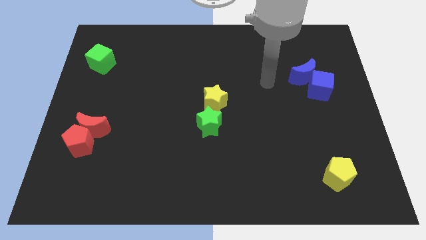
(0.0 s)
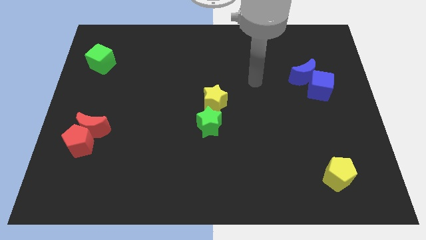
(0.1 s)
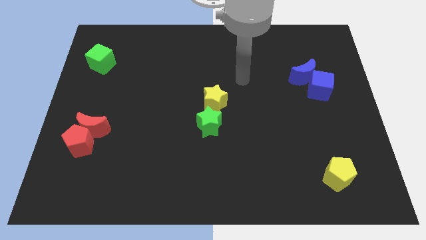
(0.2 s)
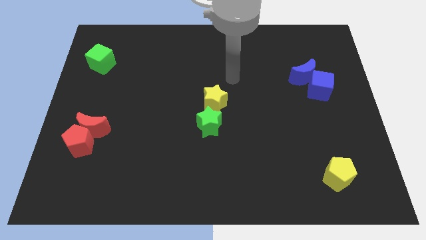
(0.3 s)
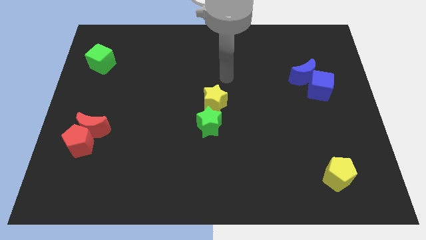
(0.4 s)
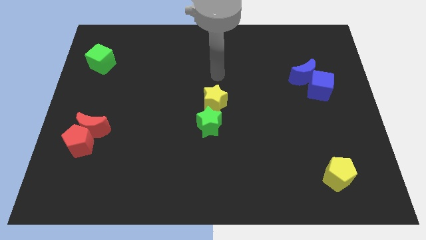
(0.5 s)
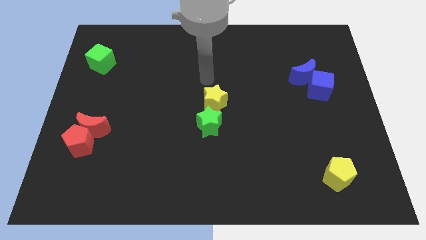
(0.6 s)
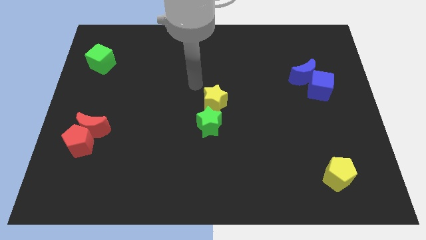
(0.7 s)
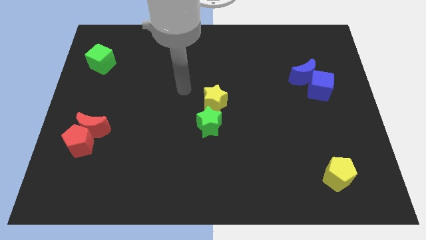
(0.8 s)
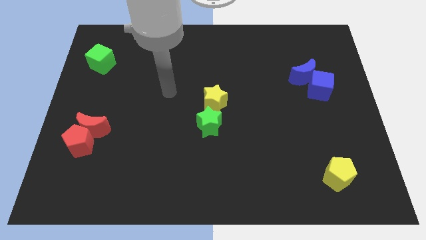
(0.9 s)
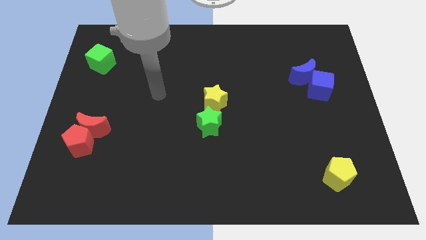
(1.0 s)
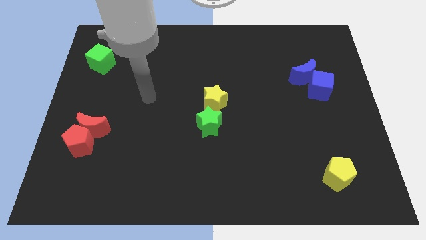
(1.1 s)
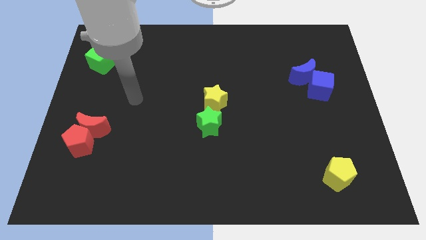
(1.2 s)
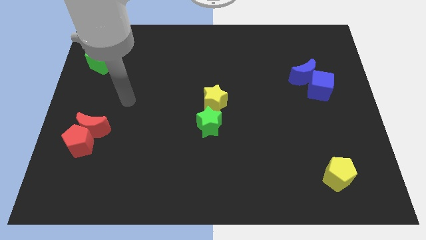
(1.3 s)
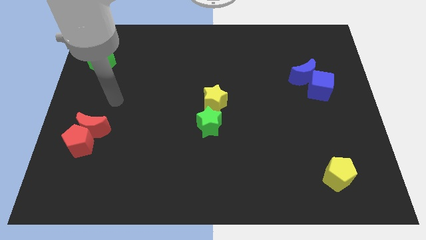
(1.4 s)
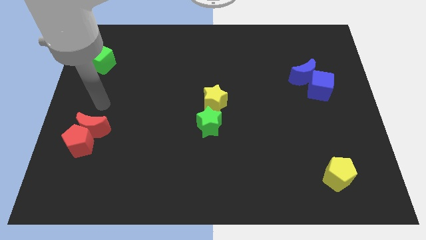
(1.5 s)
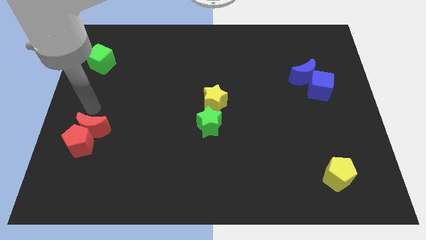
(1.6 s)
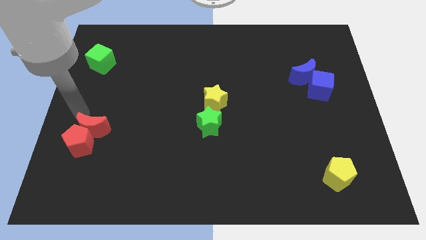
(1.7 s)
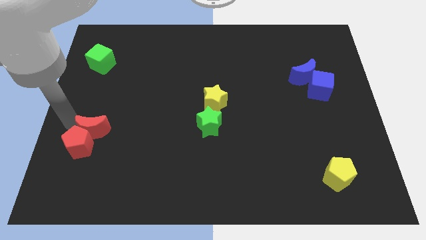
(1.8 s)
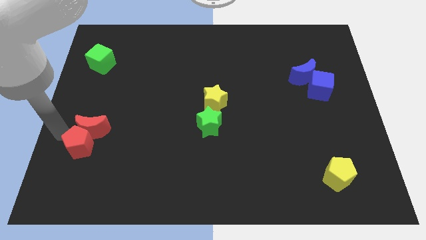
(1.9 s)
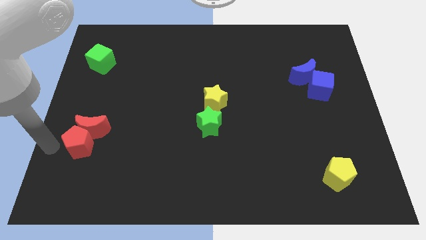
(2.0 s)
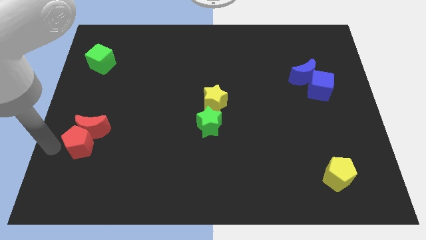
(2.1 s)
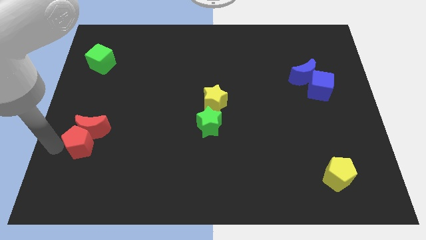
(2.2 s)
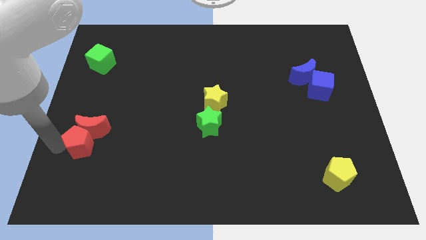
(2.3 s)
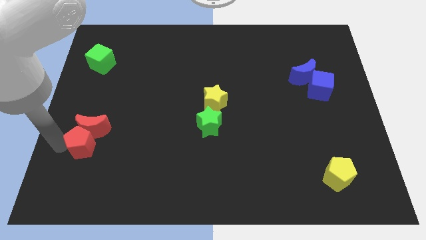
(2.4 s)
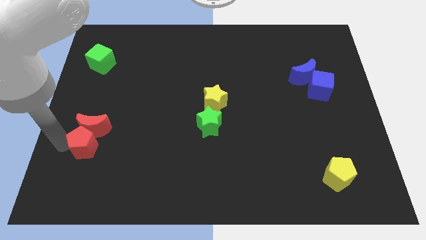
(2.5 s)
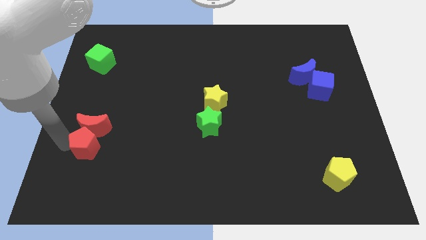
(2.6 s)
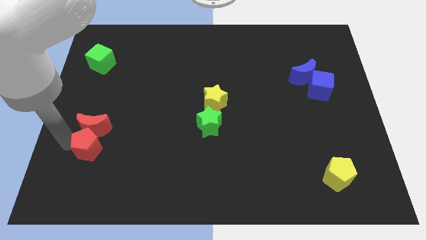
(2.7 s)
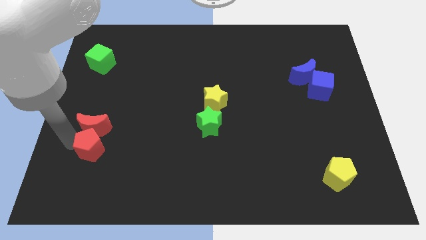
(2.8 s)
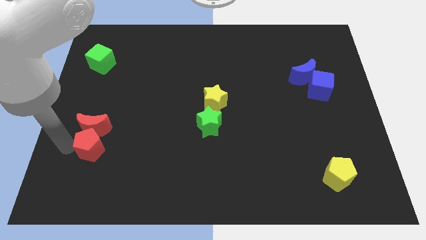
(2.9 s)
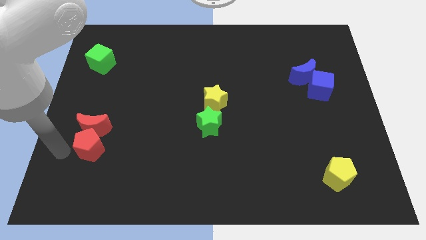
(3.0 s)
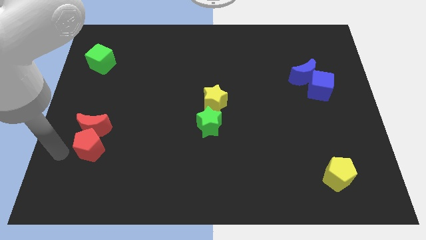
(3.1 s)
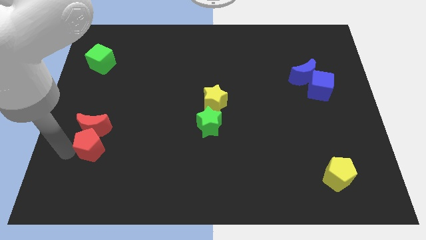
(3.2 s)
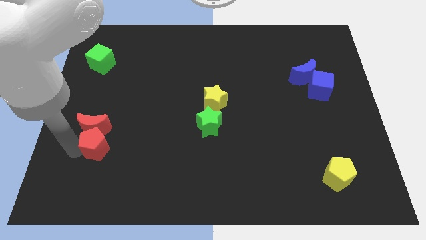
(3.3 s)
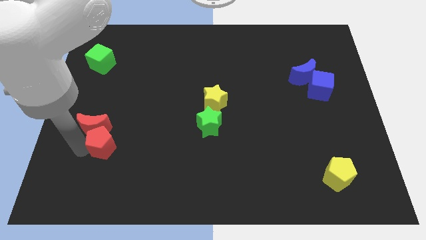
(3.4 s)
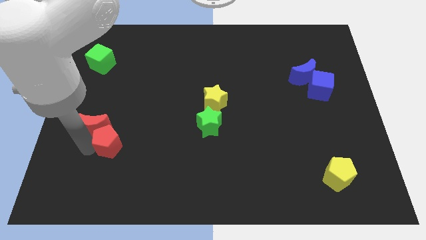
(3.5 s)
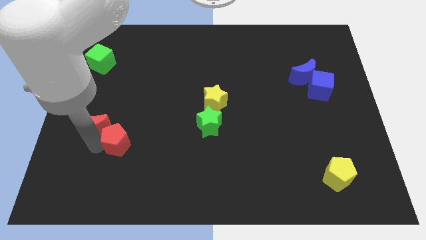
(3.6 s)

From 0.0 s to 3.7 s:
slightly slide the red pentagon right

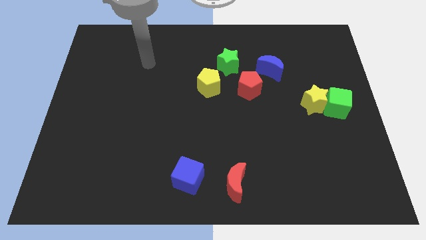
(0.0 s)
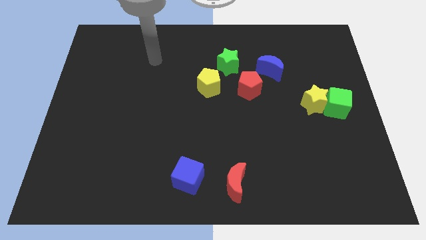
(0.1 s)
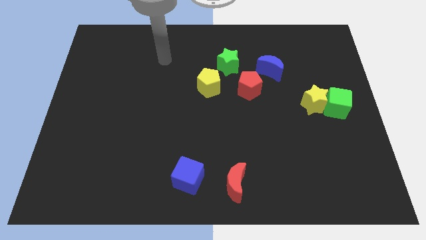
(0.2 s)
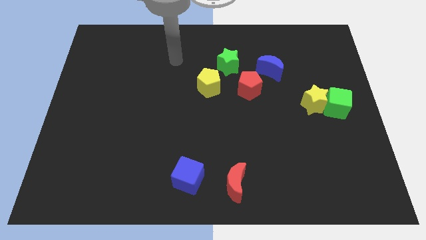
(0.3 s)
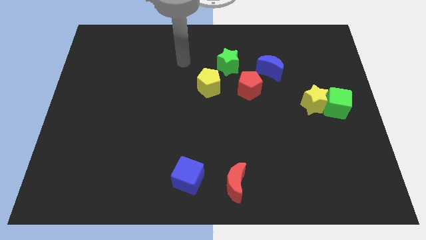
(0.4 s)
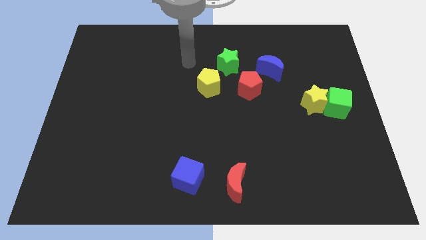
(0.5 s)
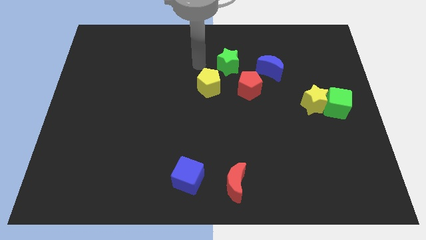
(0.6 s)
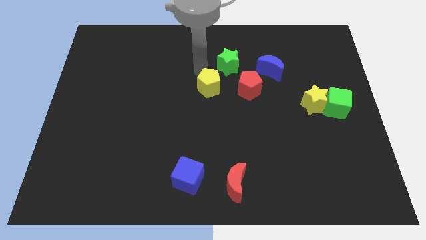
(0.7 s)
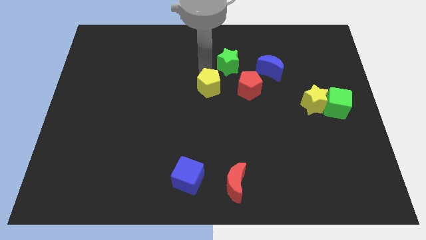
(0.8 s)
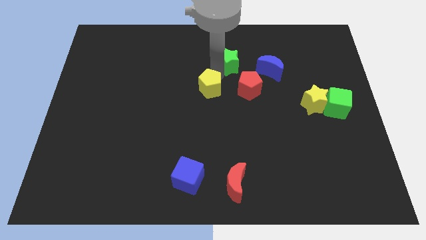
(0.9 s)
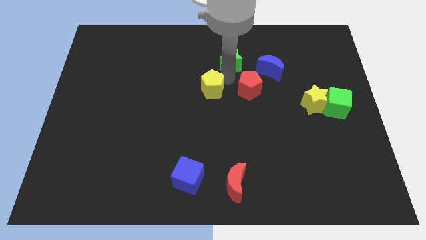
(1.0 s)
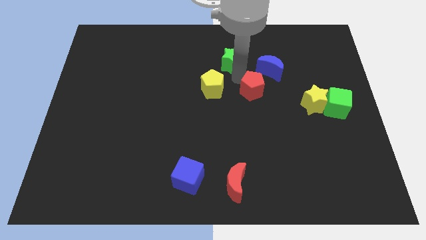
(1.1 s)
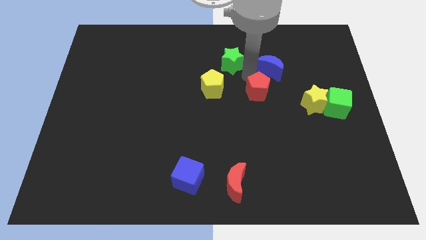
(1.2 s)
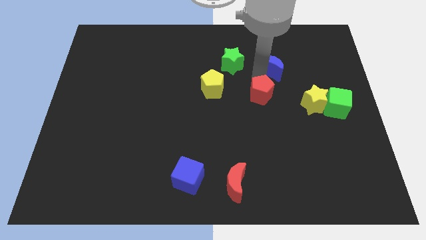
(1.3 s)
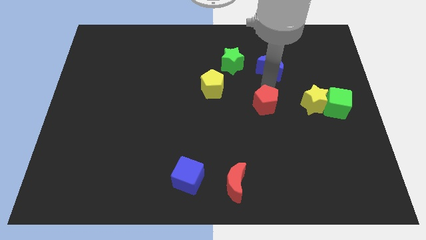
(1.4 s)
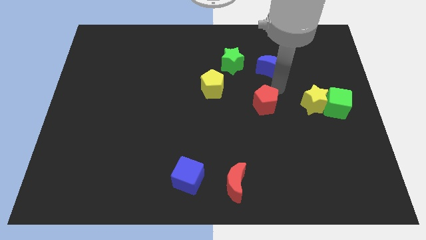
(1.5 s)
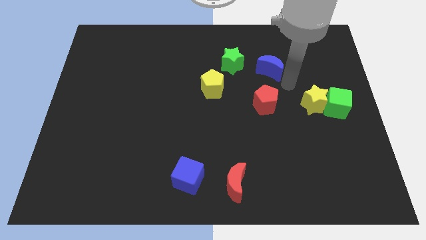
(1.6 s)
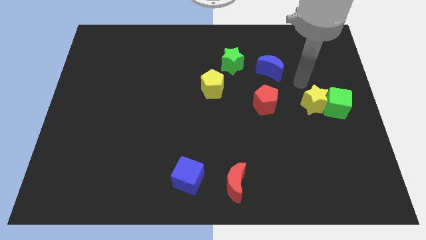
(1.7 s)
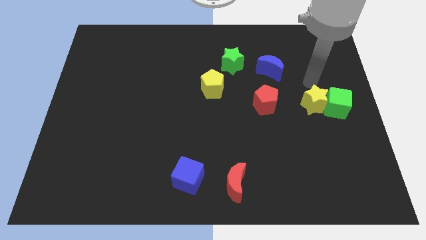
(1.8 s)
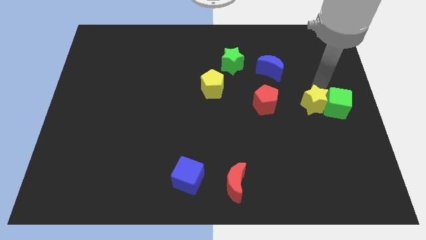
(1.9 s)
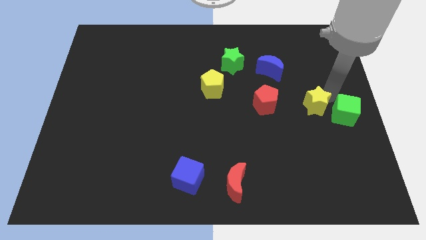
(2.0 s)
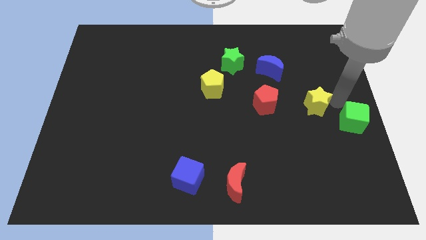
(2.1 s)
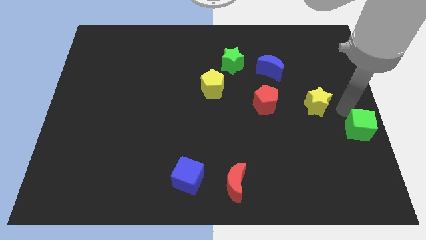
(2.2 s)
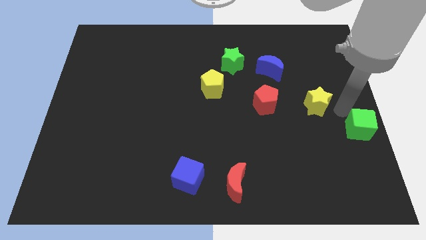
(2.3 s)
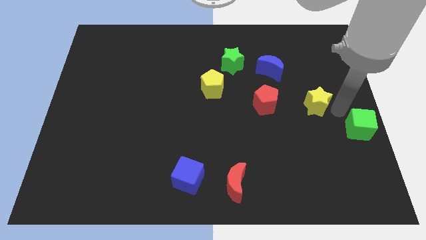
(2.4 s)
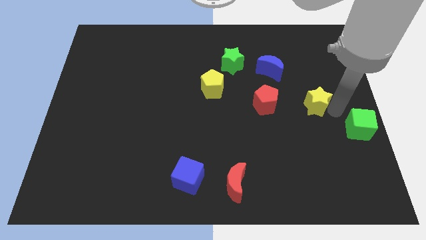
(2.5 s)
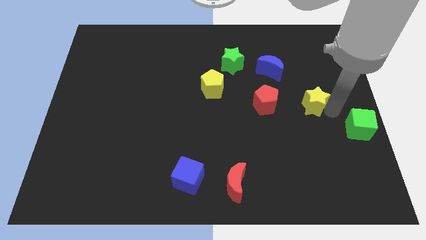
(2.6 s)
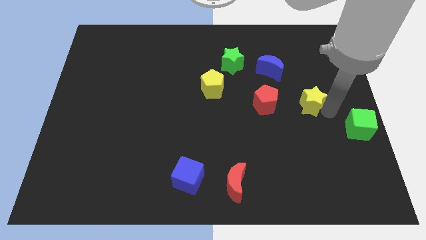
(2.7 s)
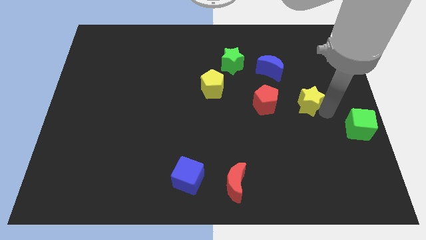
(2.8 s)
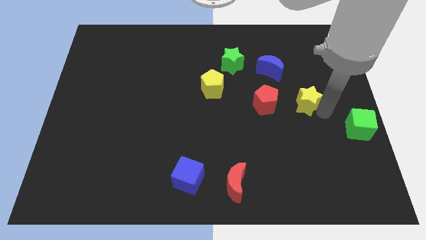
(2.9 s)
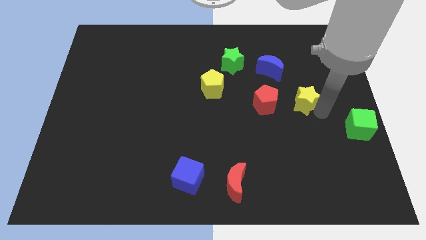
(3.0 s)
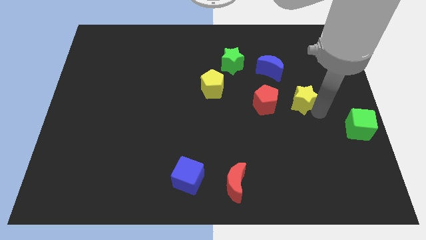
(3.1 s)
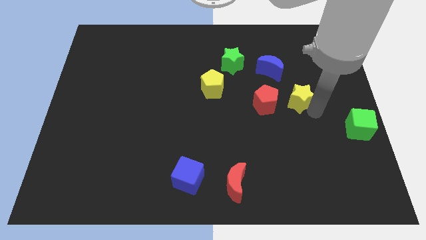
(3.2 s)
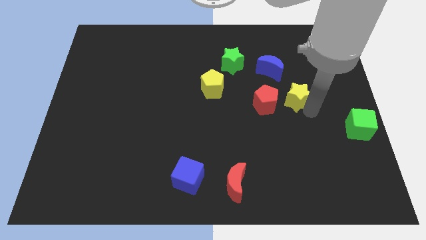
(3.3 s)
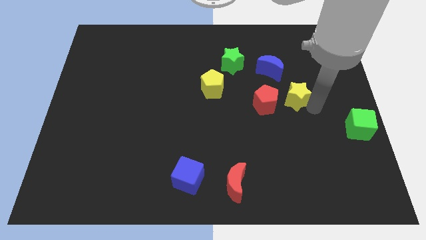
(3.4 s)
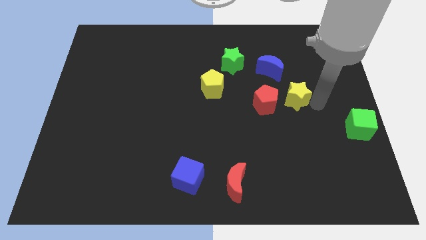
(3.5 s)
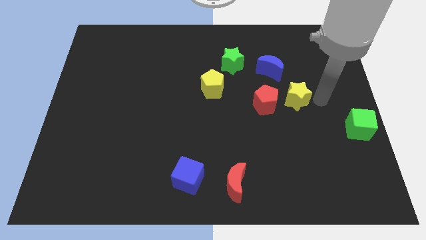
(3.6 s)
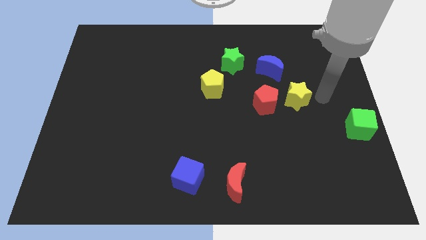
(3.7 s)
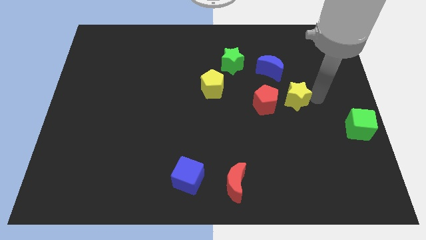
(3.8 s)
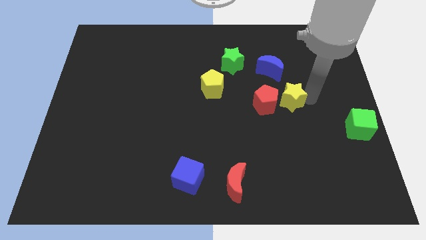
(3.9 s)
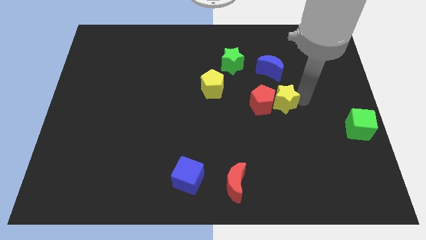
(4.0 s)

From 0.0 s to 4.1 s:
slide the yellow star somewhat left
